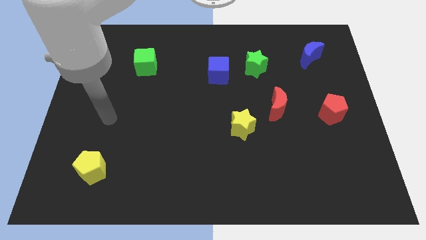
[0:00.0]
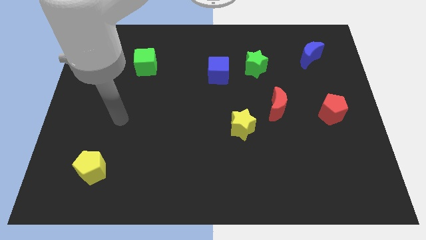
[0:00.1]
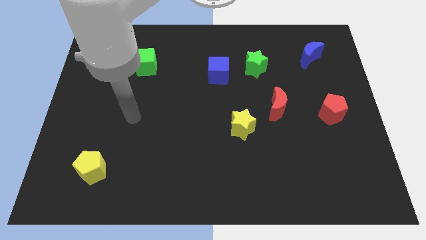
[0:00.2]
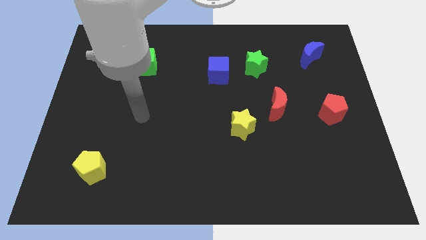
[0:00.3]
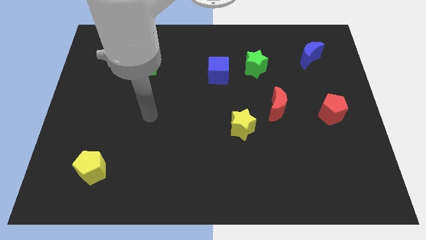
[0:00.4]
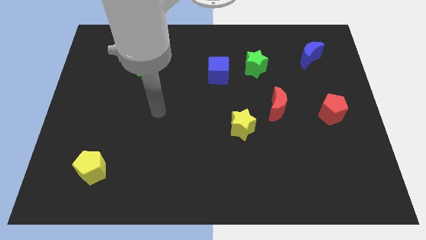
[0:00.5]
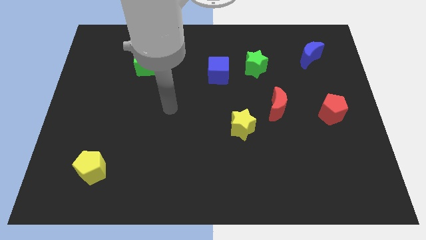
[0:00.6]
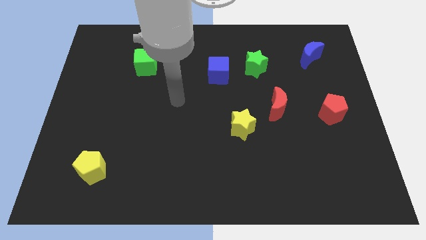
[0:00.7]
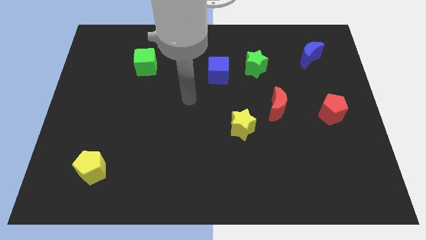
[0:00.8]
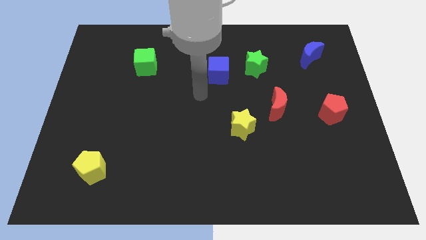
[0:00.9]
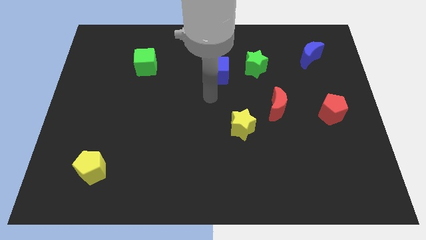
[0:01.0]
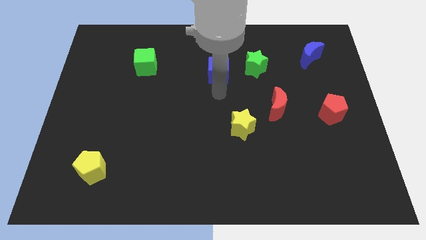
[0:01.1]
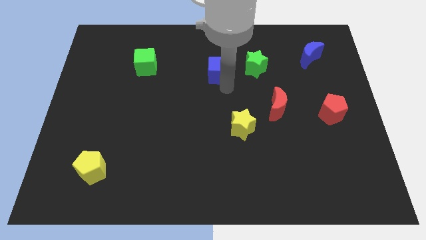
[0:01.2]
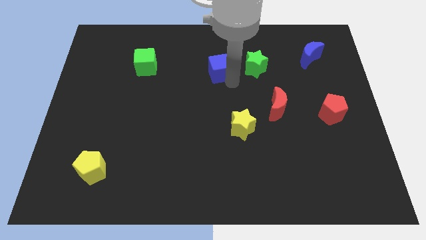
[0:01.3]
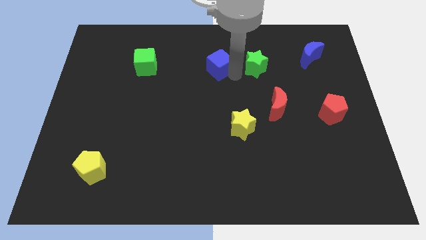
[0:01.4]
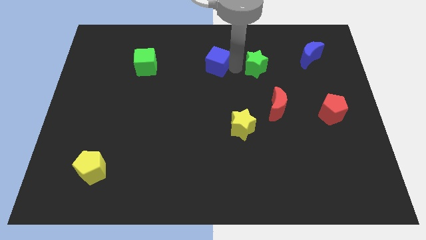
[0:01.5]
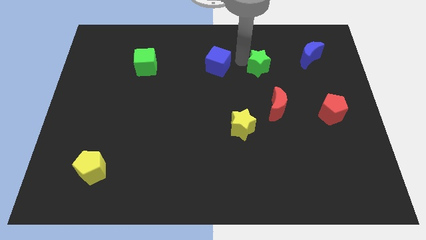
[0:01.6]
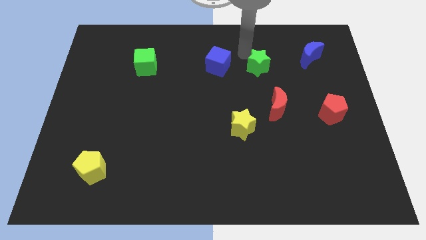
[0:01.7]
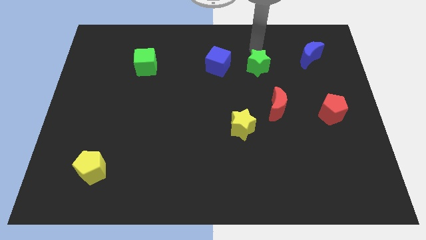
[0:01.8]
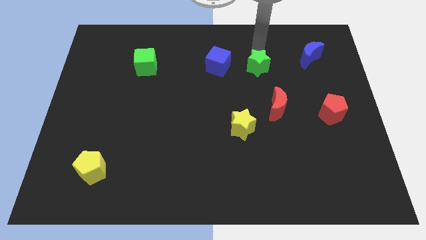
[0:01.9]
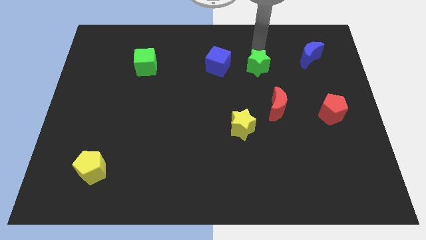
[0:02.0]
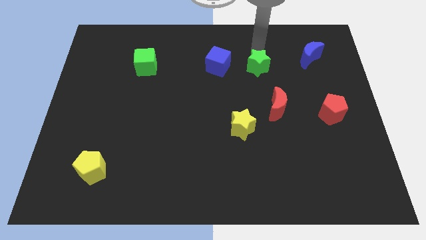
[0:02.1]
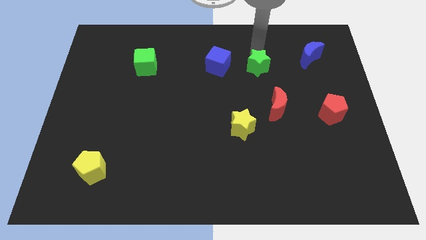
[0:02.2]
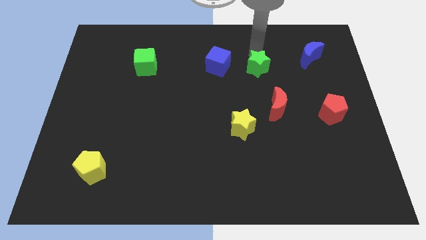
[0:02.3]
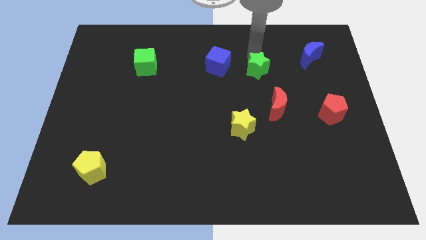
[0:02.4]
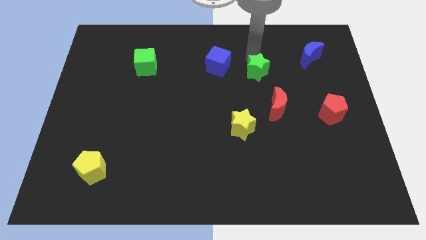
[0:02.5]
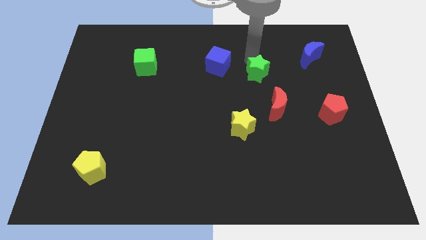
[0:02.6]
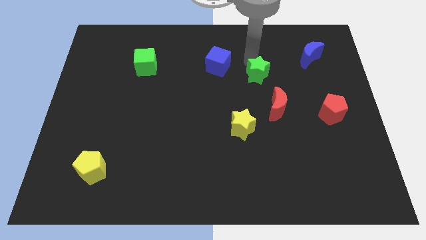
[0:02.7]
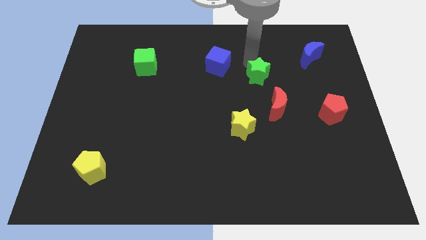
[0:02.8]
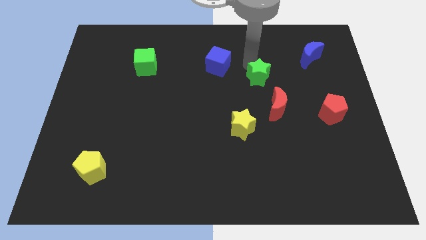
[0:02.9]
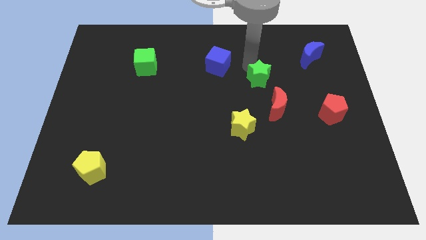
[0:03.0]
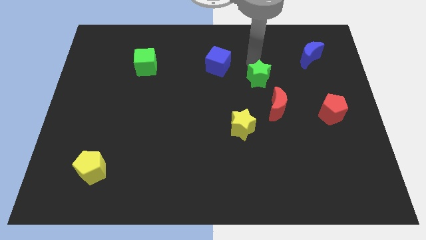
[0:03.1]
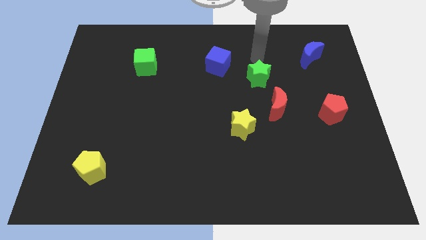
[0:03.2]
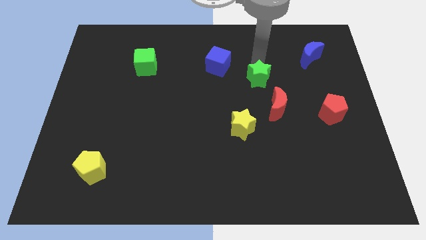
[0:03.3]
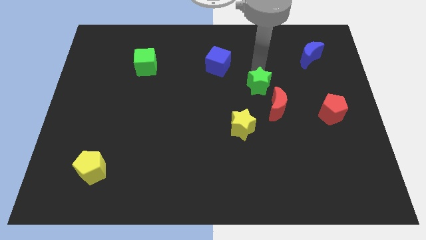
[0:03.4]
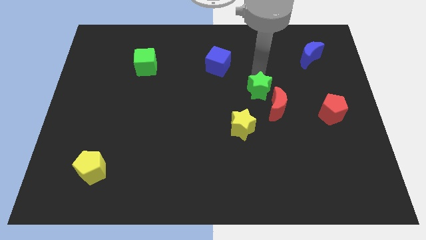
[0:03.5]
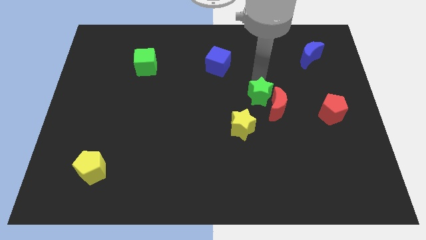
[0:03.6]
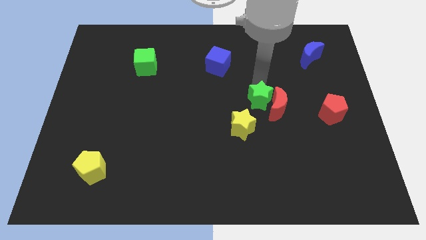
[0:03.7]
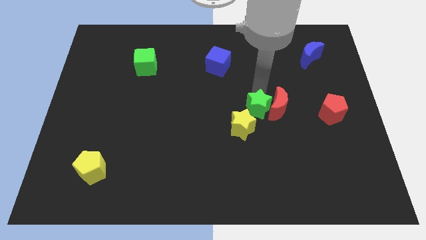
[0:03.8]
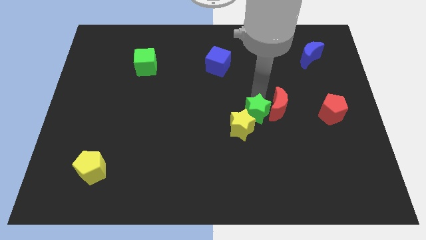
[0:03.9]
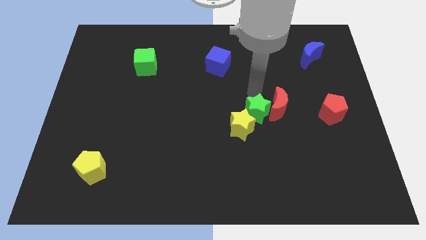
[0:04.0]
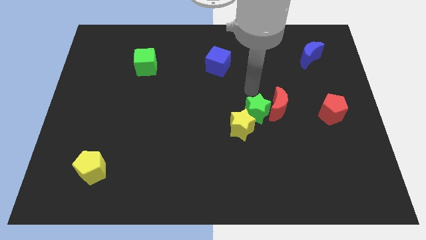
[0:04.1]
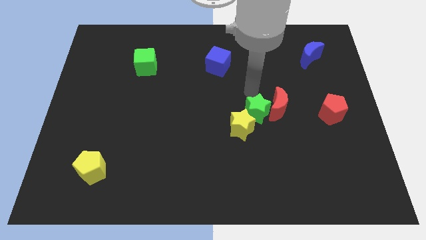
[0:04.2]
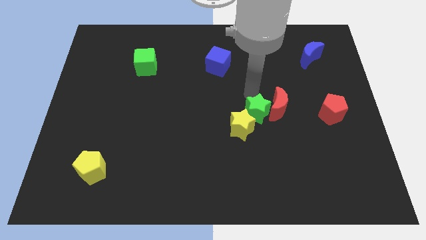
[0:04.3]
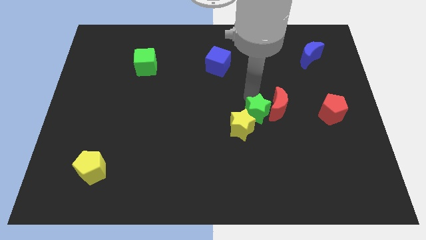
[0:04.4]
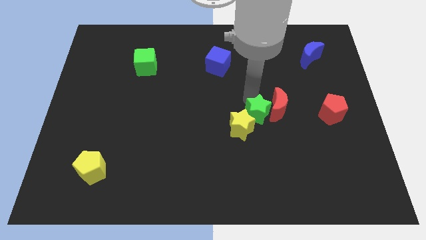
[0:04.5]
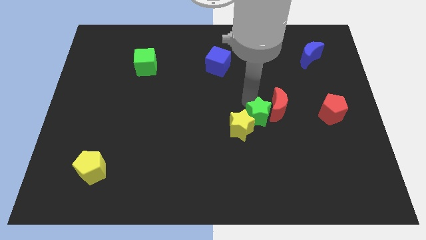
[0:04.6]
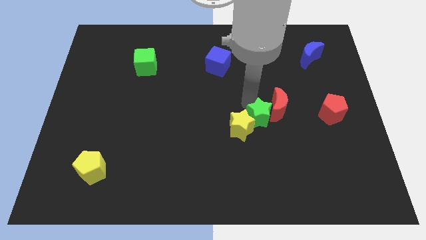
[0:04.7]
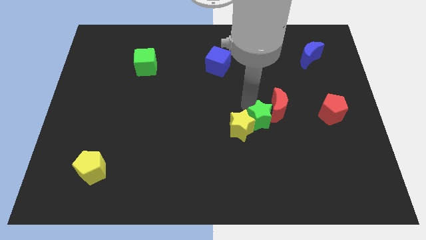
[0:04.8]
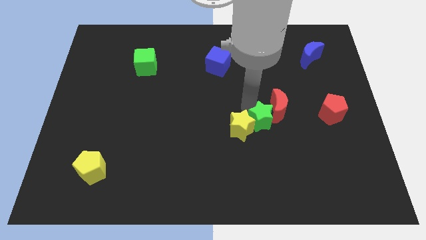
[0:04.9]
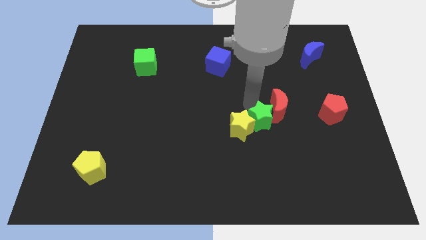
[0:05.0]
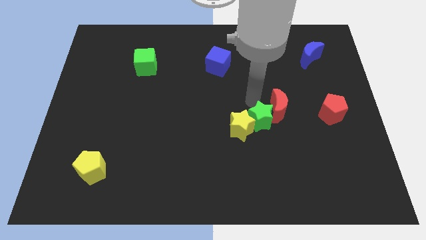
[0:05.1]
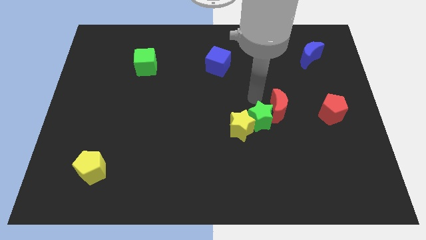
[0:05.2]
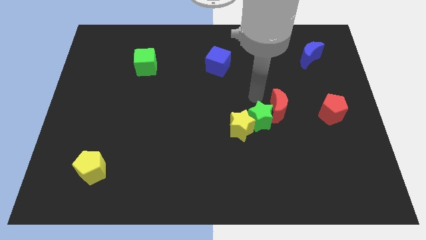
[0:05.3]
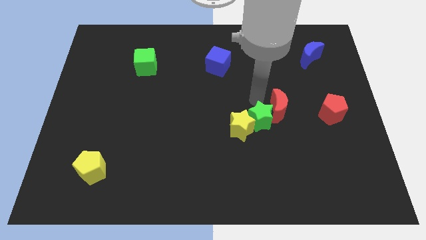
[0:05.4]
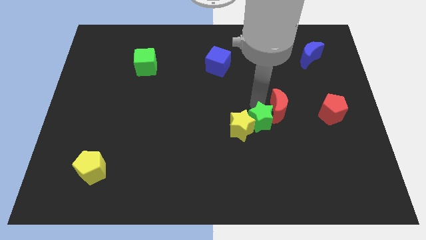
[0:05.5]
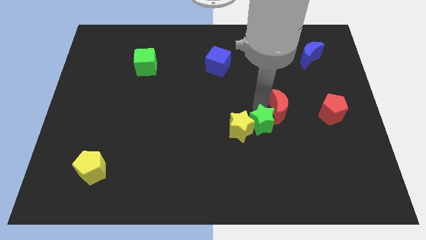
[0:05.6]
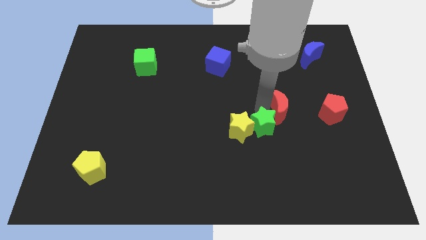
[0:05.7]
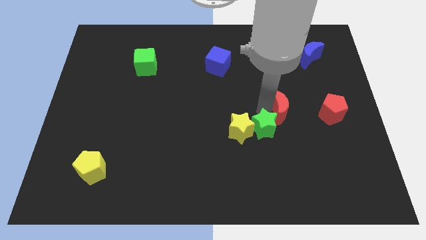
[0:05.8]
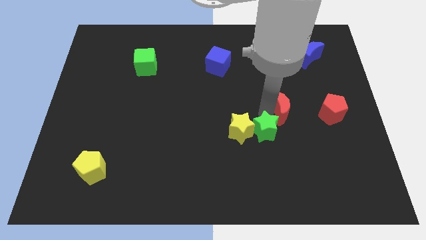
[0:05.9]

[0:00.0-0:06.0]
slide the green star down

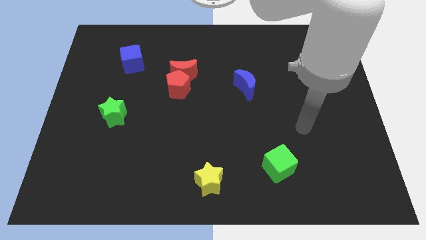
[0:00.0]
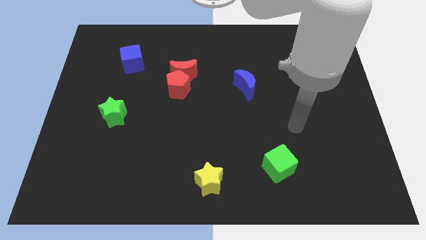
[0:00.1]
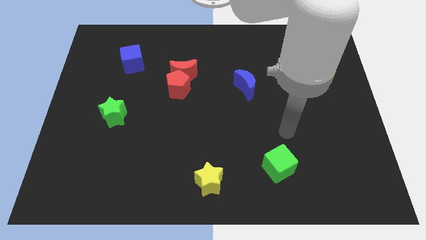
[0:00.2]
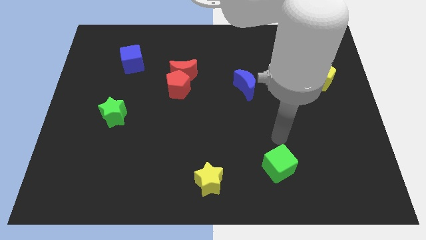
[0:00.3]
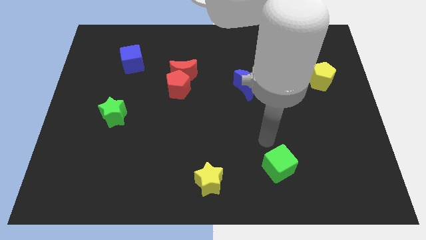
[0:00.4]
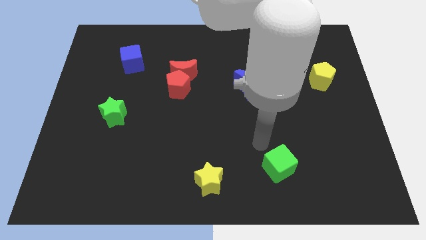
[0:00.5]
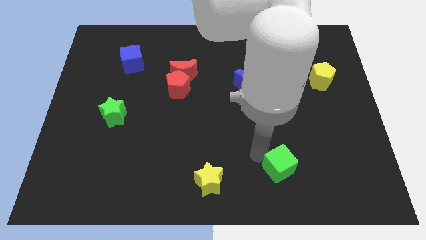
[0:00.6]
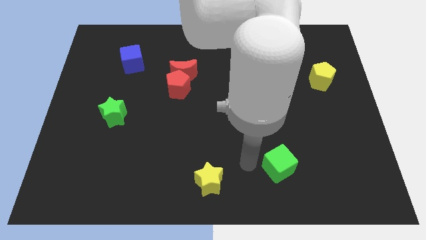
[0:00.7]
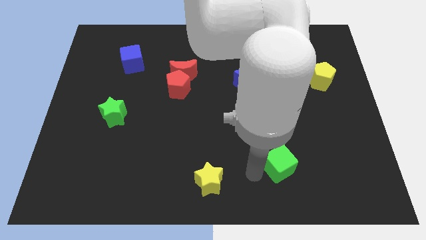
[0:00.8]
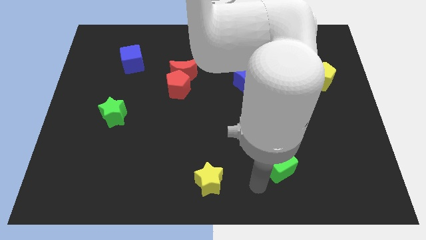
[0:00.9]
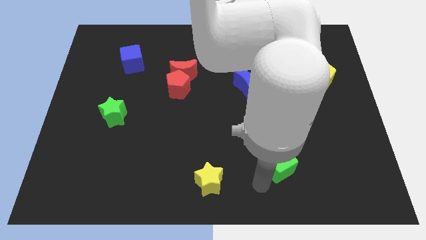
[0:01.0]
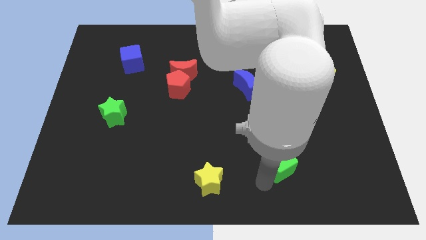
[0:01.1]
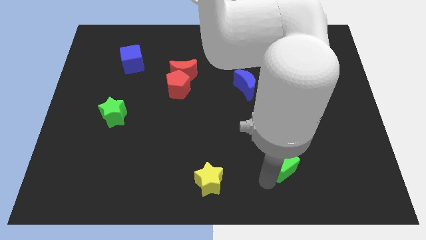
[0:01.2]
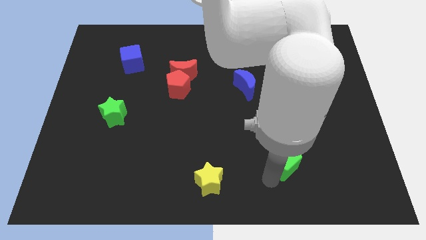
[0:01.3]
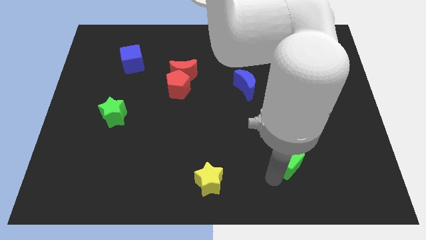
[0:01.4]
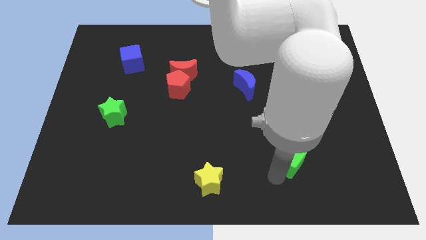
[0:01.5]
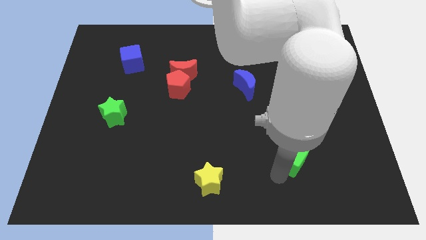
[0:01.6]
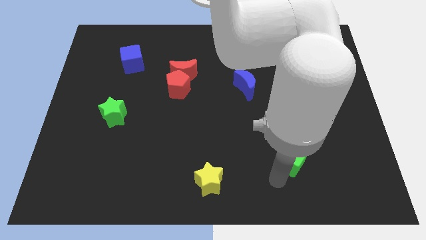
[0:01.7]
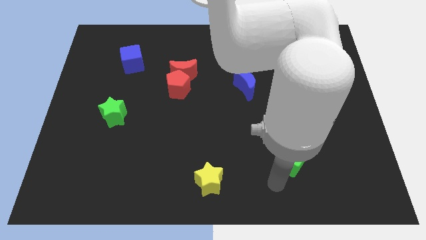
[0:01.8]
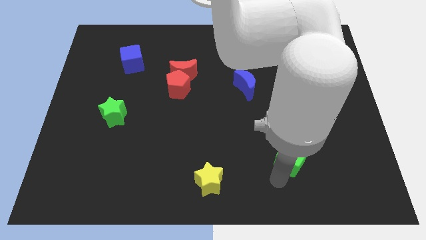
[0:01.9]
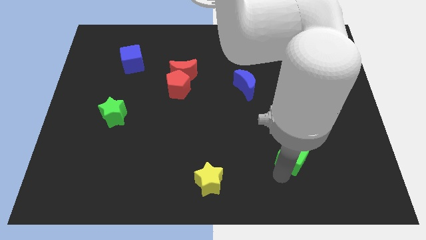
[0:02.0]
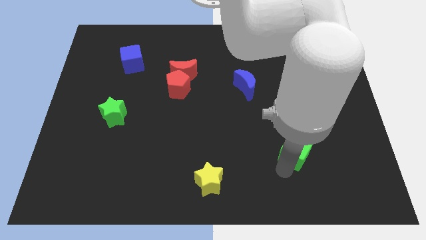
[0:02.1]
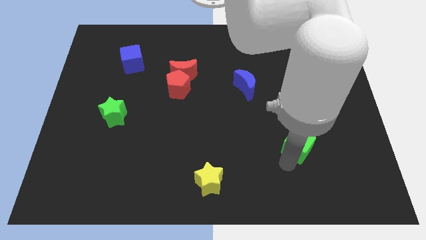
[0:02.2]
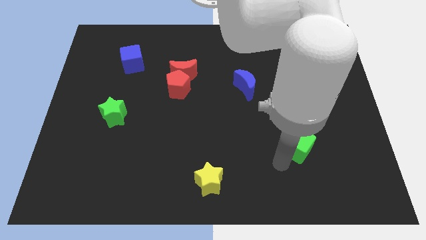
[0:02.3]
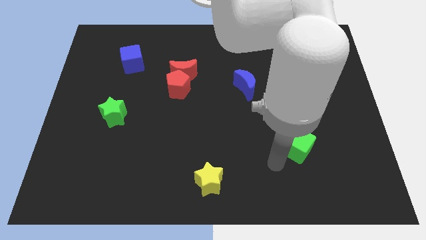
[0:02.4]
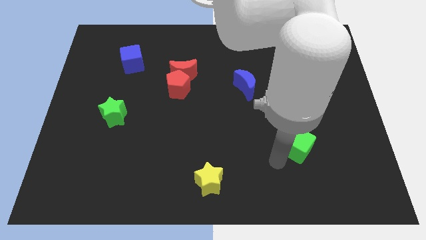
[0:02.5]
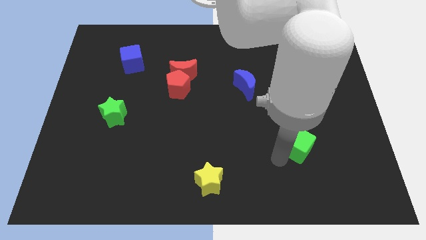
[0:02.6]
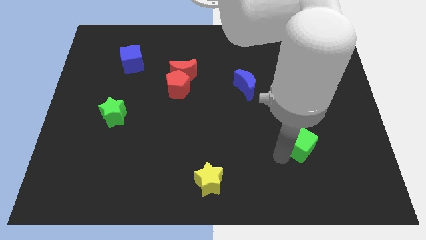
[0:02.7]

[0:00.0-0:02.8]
slide the green cube up and then to the right a little bit
